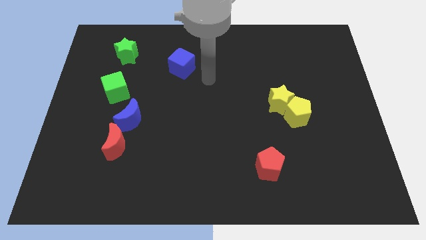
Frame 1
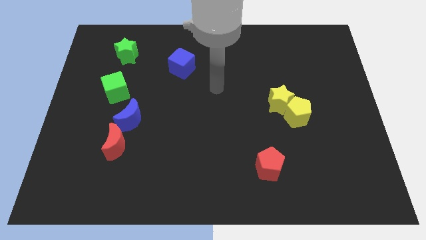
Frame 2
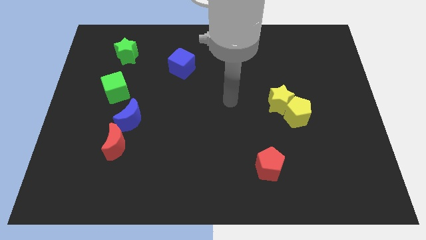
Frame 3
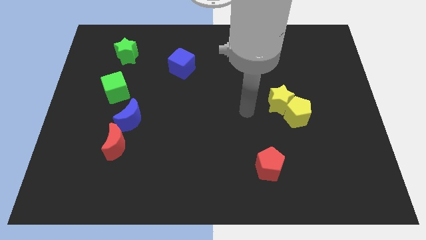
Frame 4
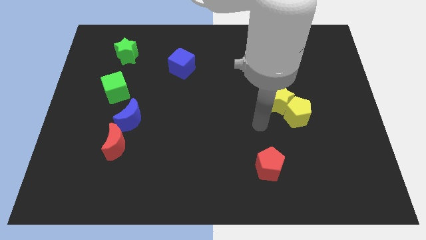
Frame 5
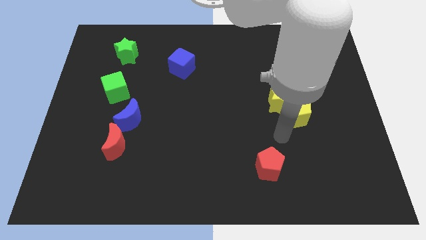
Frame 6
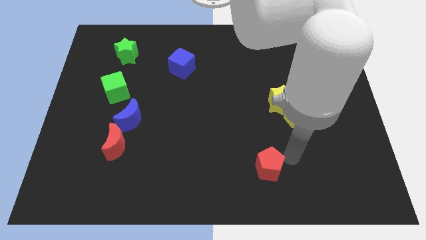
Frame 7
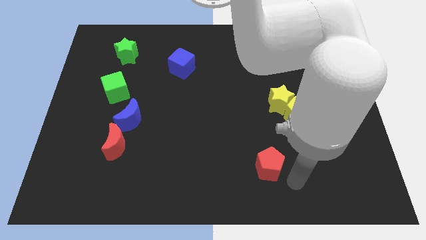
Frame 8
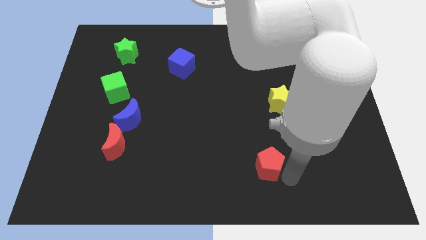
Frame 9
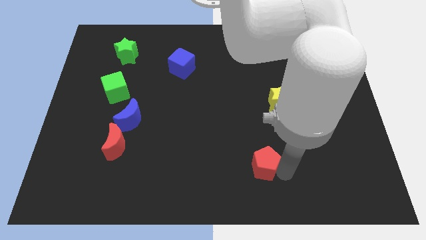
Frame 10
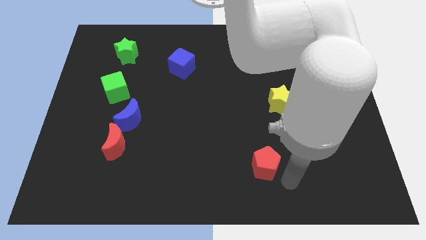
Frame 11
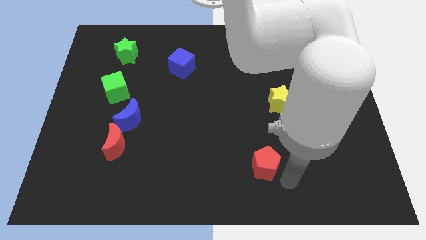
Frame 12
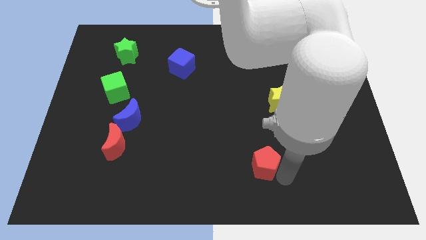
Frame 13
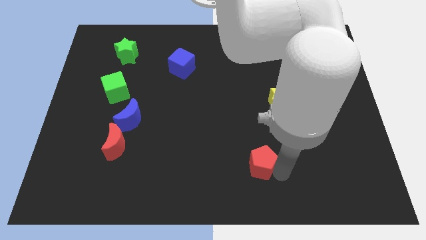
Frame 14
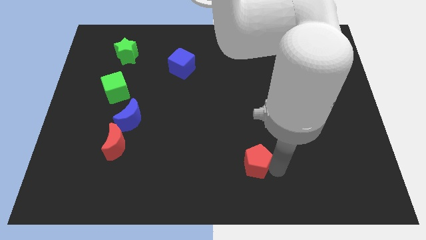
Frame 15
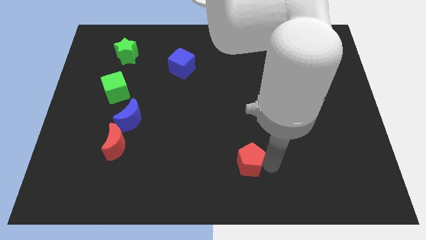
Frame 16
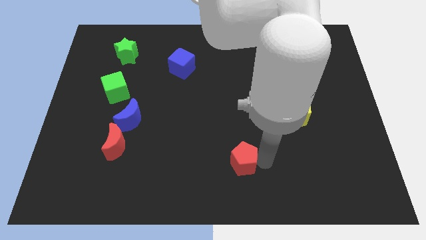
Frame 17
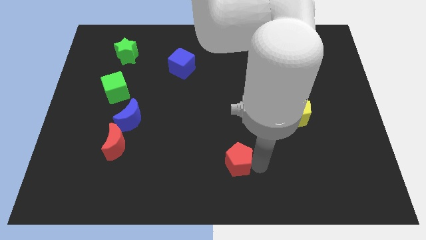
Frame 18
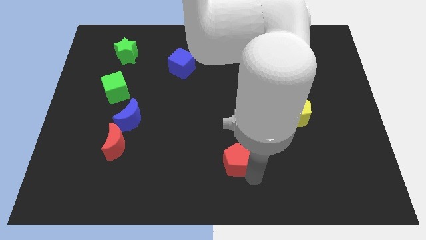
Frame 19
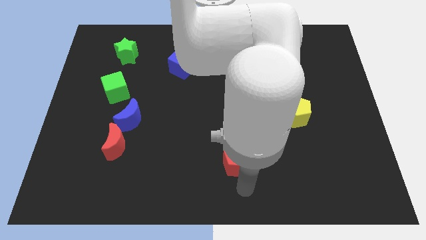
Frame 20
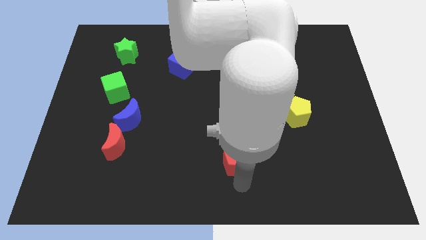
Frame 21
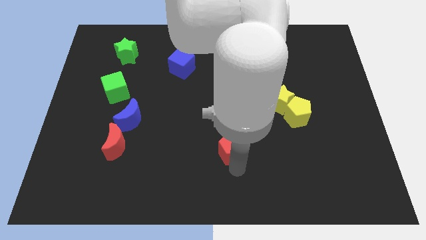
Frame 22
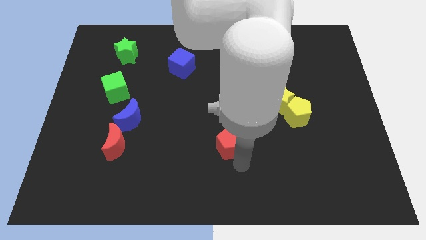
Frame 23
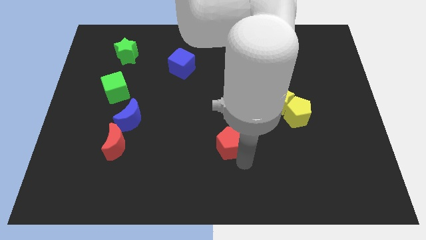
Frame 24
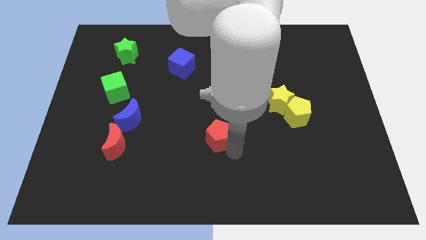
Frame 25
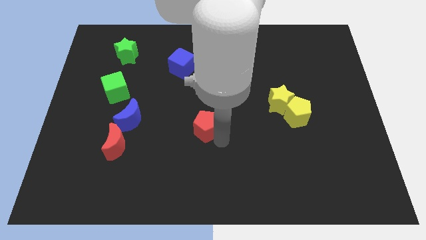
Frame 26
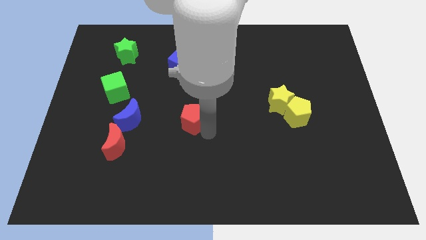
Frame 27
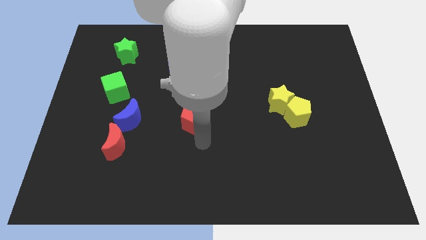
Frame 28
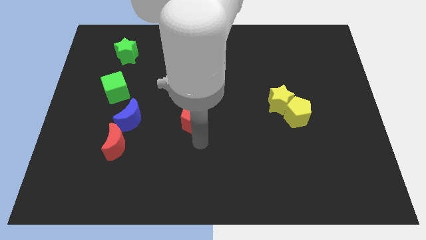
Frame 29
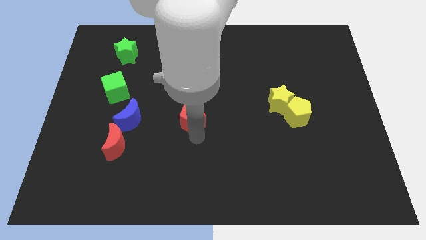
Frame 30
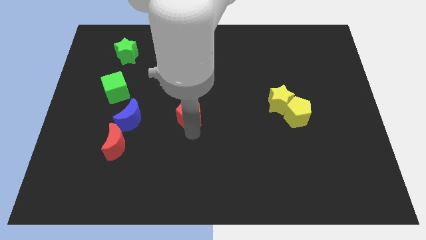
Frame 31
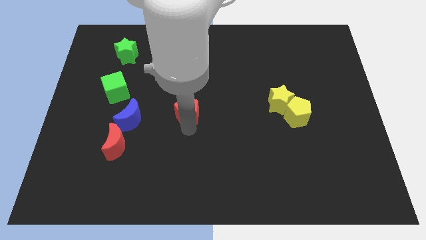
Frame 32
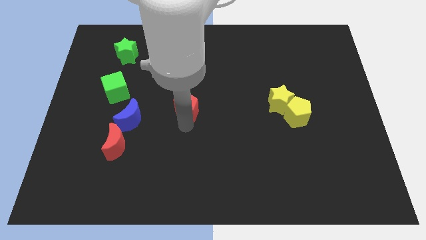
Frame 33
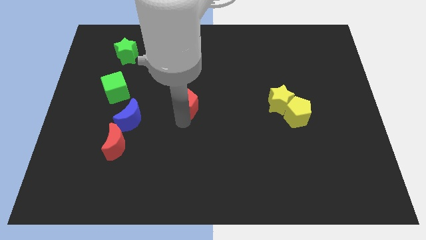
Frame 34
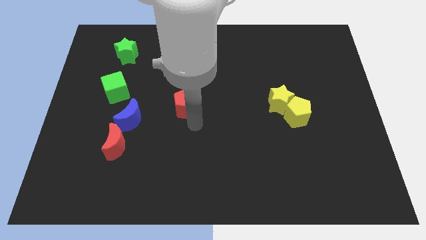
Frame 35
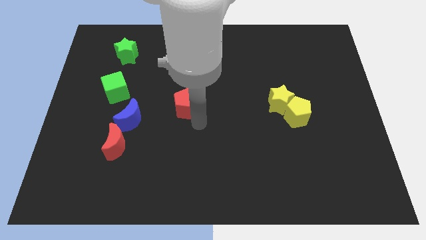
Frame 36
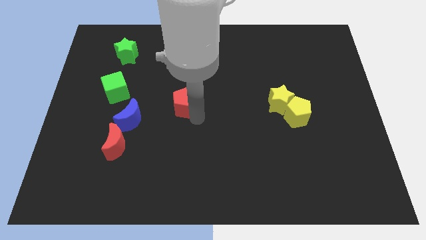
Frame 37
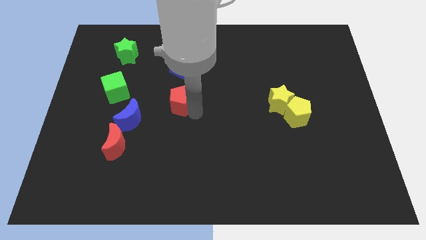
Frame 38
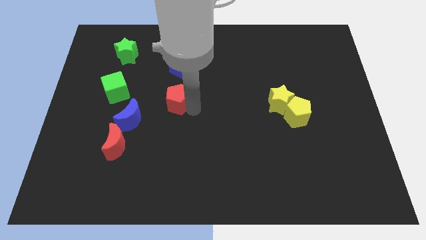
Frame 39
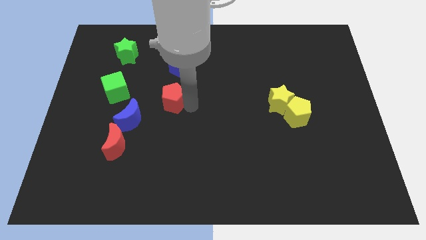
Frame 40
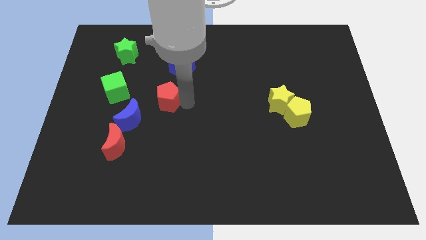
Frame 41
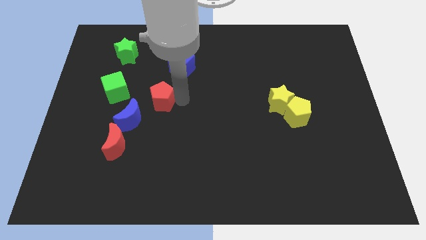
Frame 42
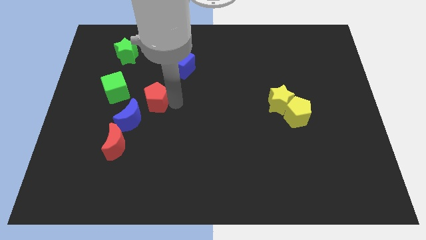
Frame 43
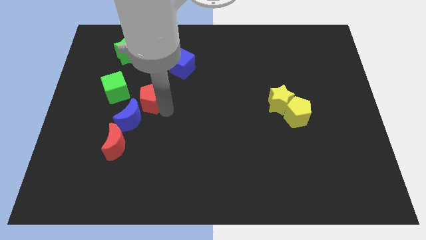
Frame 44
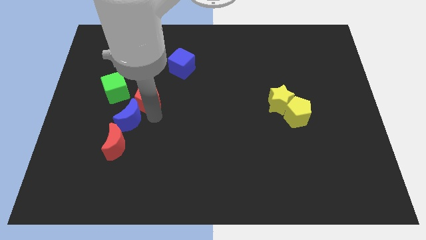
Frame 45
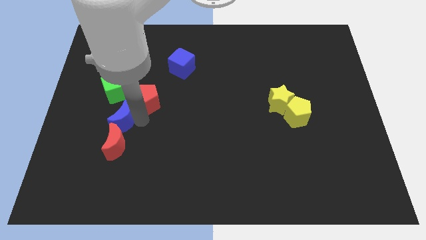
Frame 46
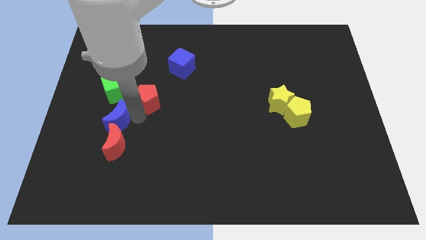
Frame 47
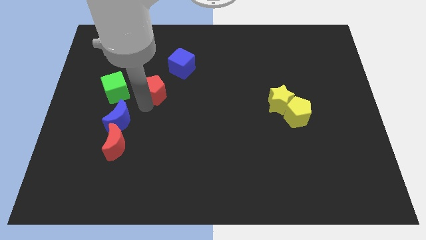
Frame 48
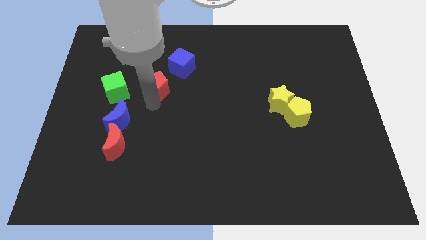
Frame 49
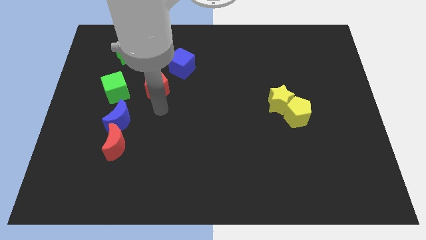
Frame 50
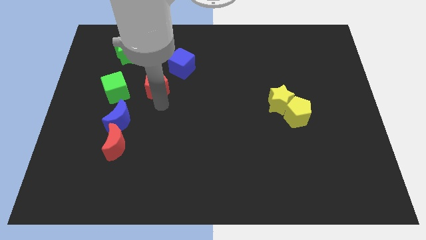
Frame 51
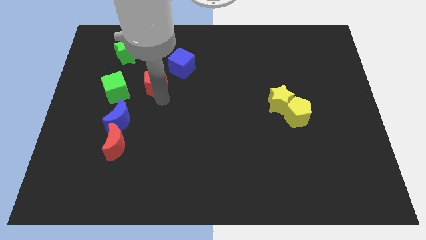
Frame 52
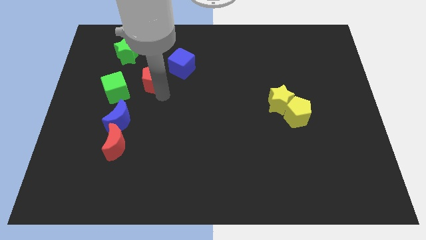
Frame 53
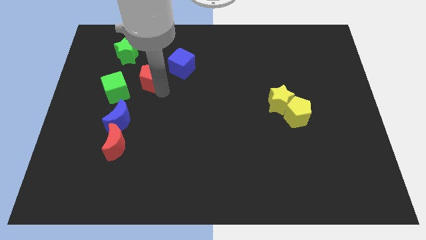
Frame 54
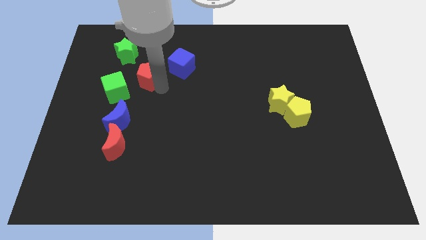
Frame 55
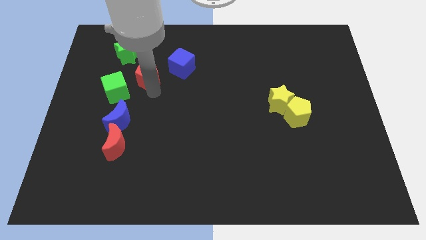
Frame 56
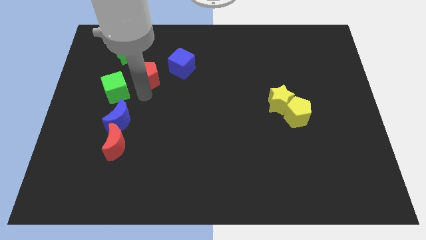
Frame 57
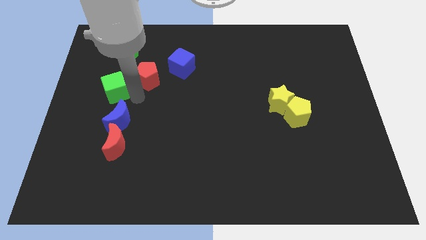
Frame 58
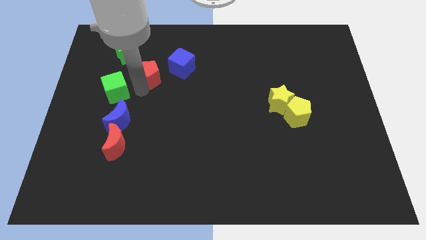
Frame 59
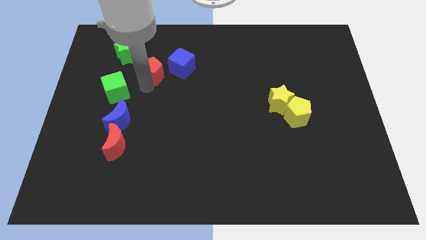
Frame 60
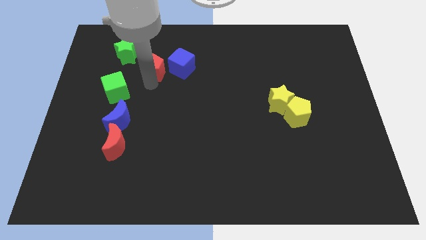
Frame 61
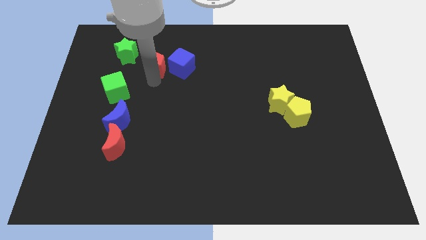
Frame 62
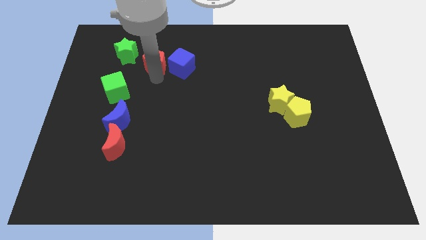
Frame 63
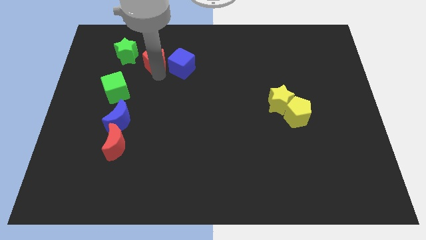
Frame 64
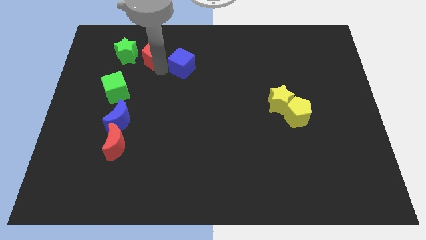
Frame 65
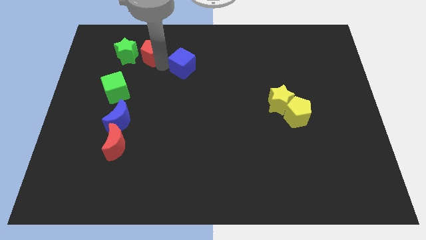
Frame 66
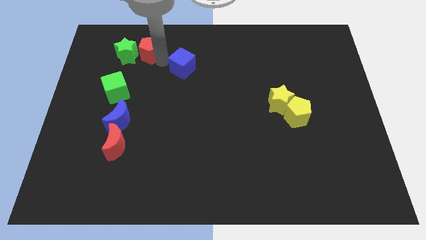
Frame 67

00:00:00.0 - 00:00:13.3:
put the red pentagon close to the green star
